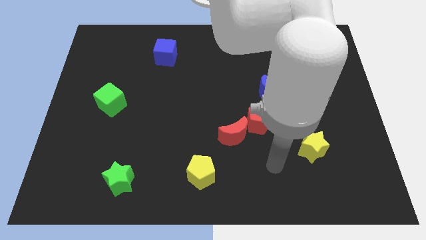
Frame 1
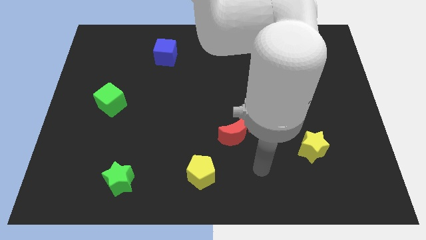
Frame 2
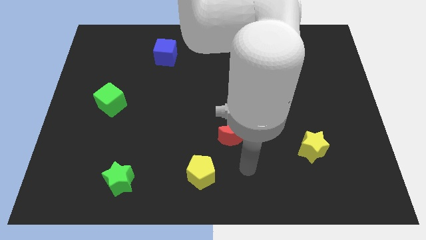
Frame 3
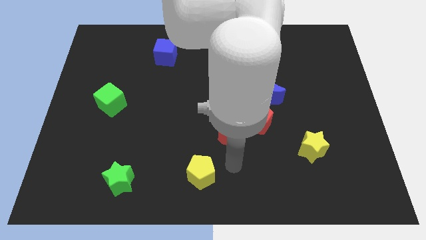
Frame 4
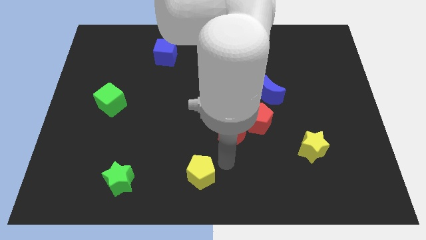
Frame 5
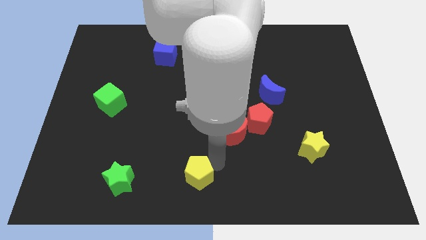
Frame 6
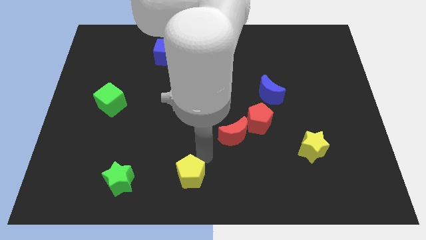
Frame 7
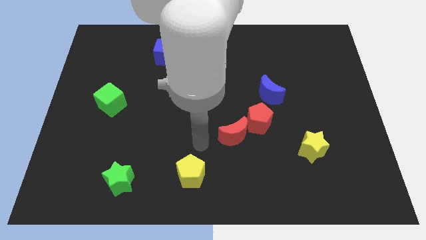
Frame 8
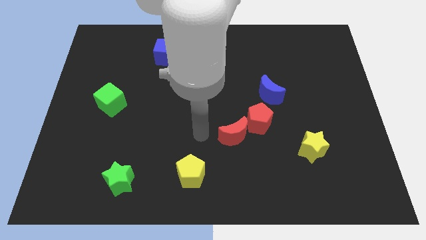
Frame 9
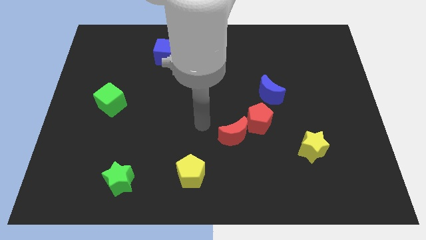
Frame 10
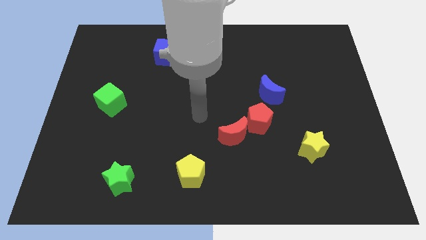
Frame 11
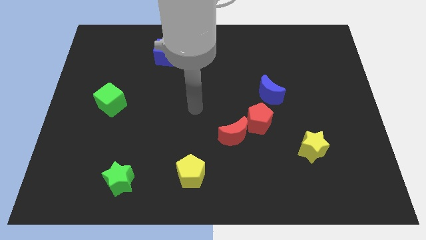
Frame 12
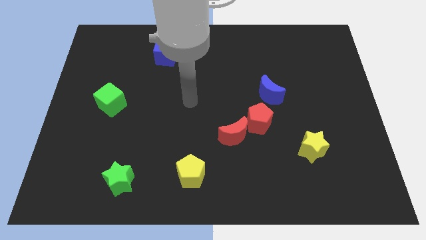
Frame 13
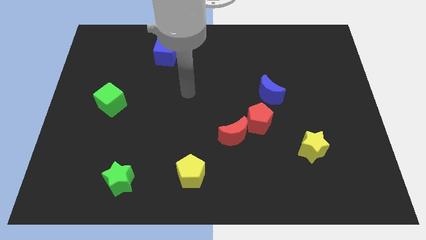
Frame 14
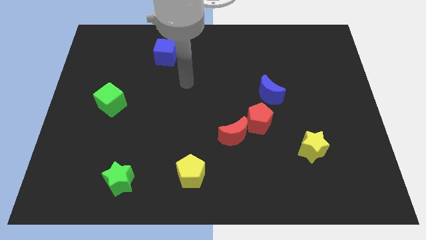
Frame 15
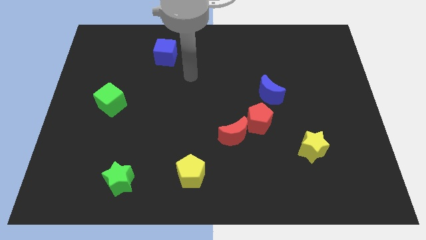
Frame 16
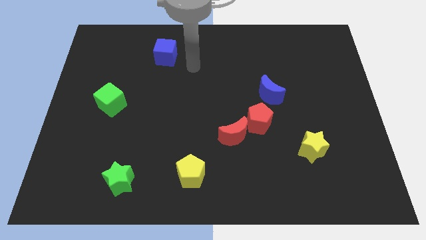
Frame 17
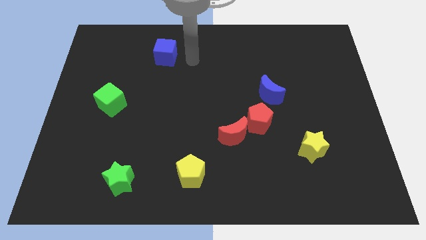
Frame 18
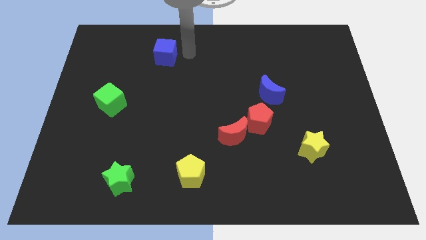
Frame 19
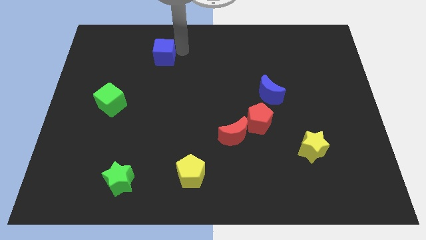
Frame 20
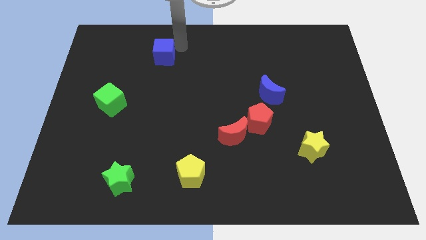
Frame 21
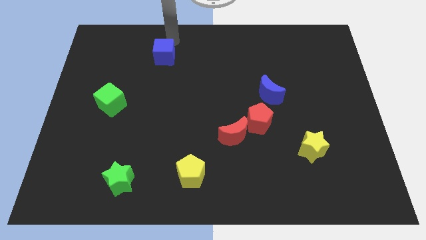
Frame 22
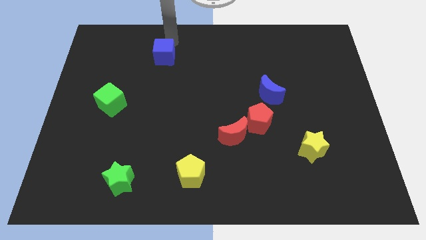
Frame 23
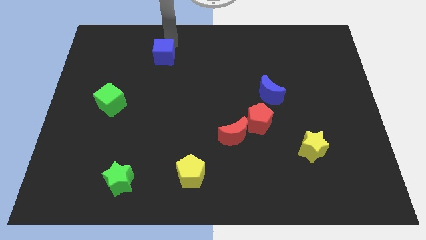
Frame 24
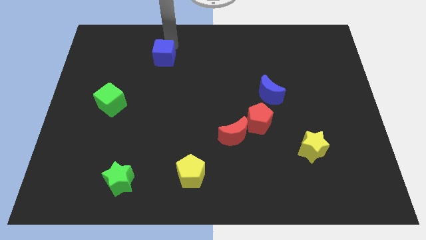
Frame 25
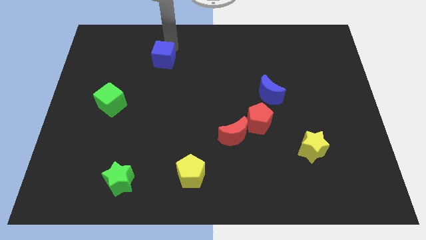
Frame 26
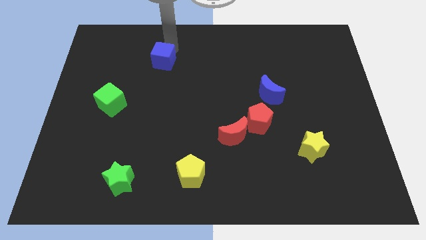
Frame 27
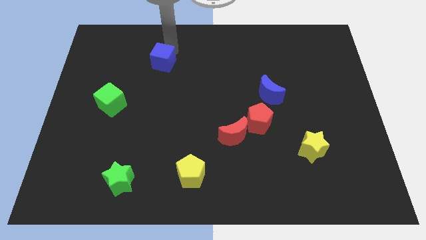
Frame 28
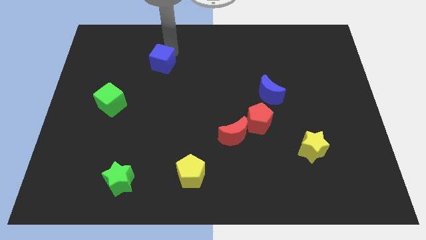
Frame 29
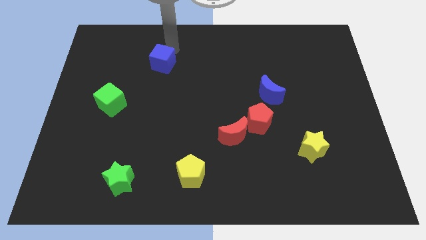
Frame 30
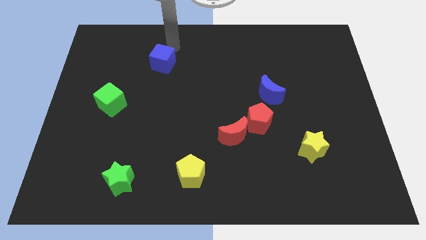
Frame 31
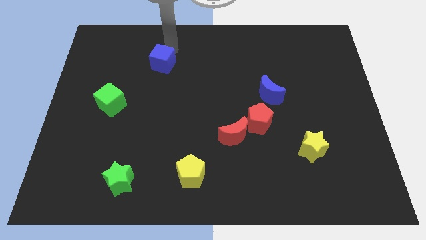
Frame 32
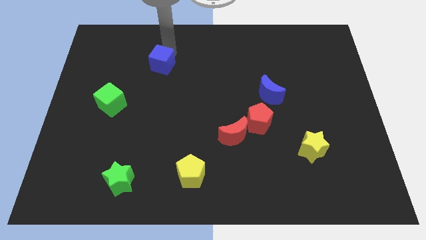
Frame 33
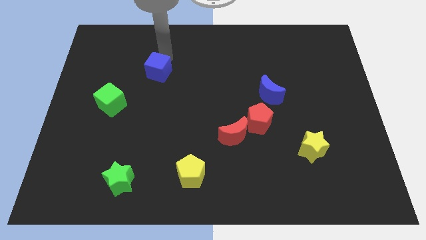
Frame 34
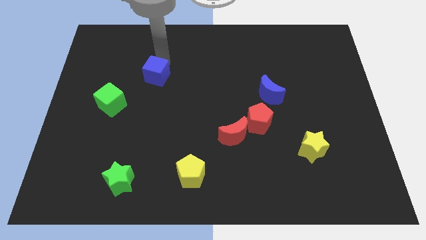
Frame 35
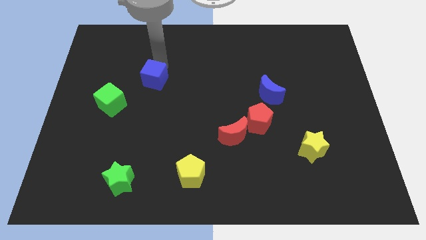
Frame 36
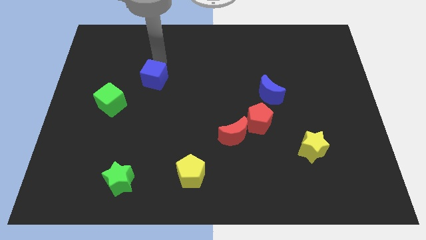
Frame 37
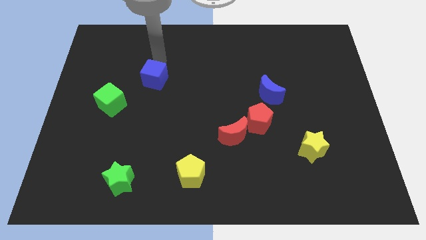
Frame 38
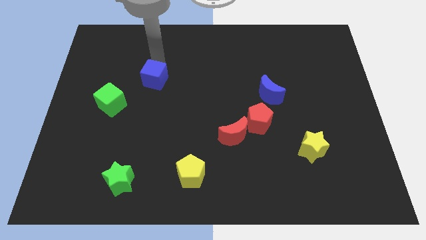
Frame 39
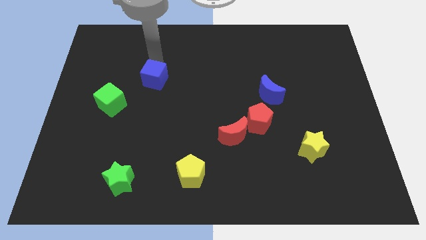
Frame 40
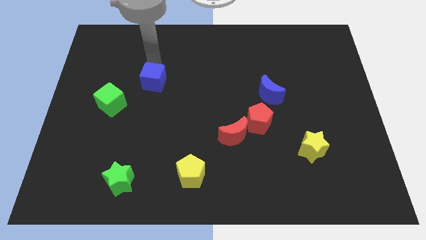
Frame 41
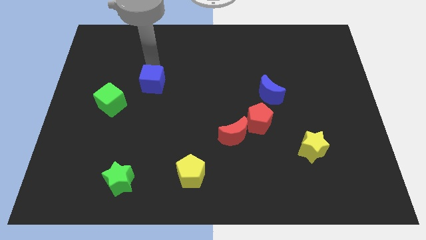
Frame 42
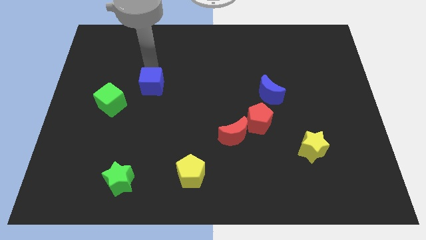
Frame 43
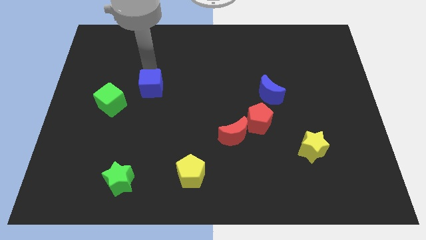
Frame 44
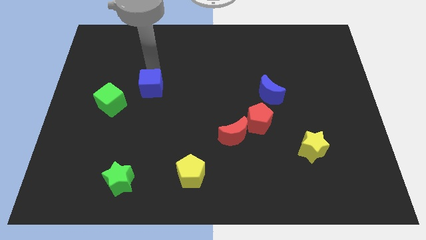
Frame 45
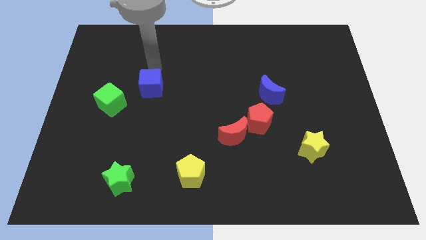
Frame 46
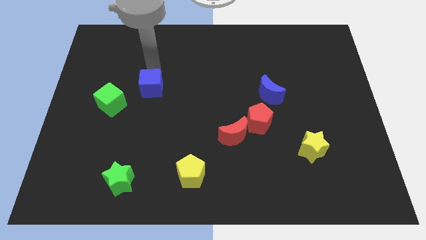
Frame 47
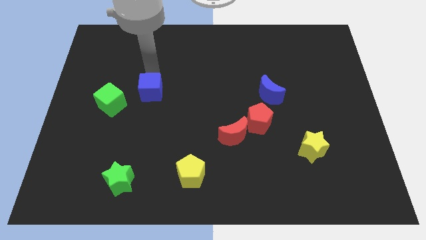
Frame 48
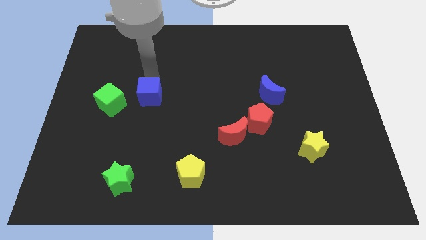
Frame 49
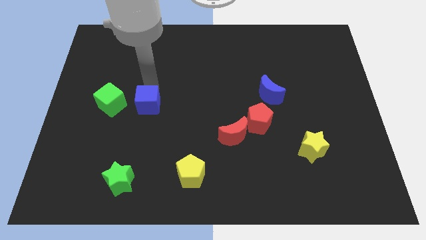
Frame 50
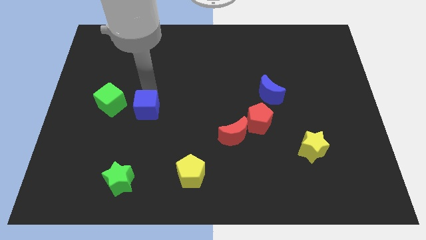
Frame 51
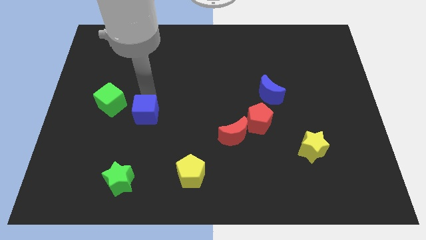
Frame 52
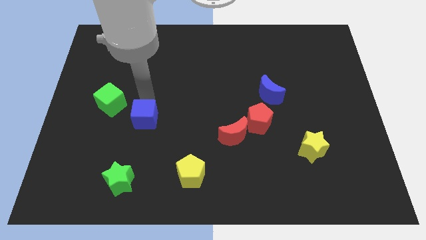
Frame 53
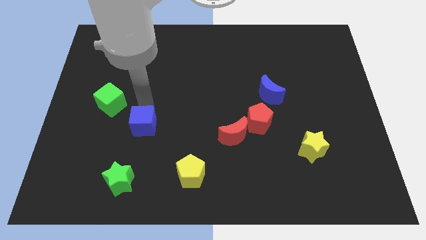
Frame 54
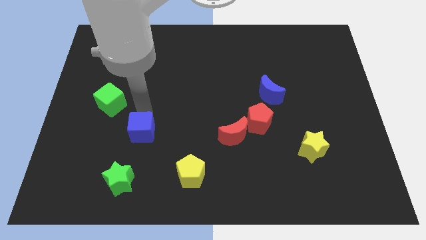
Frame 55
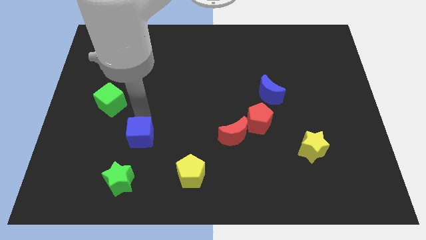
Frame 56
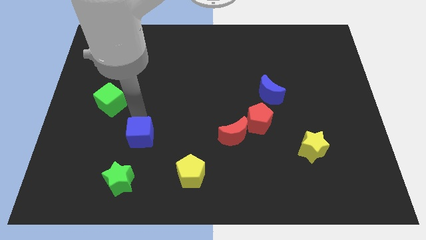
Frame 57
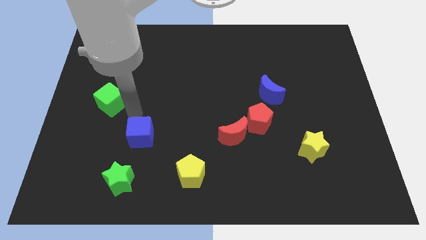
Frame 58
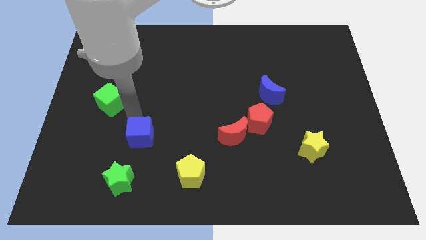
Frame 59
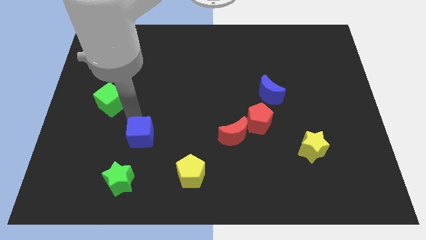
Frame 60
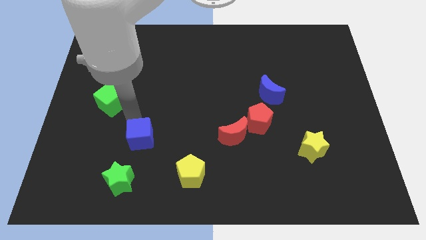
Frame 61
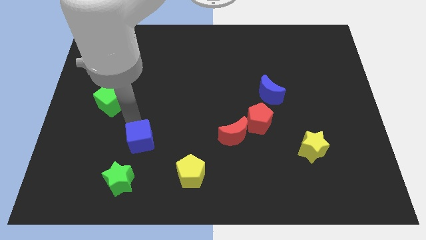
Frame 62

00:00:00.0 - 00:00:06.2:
slide the blue cube to the top right of the green star
